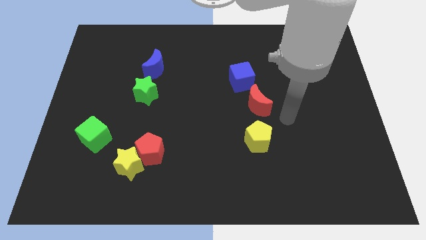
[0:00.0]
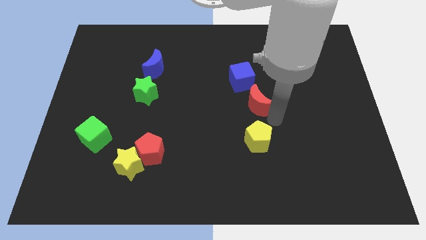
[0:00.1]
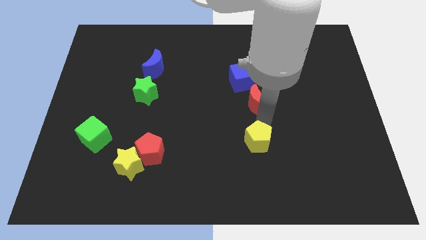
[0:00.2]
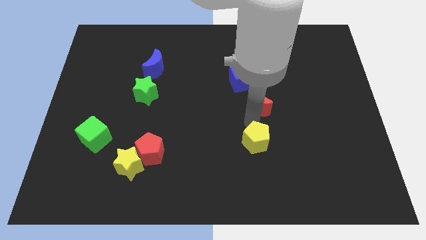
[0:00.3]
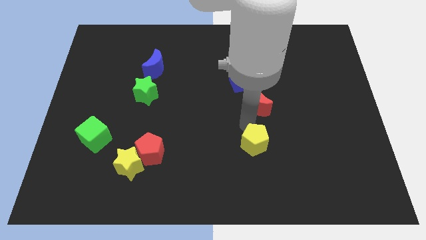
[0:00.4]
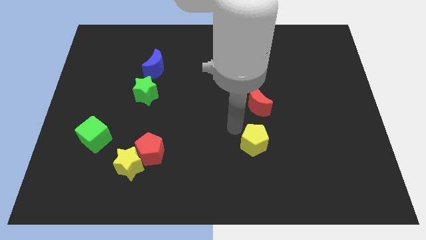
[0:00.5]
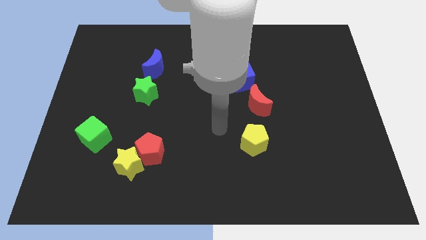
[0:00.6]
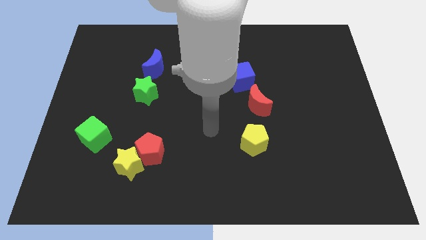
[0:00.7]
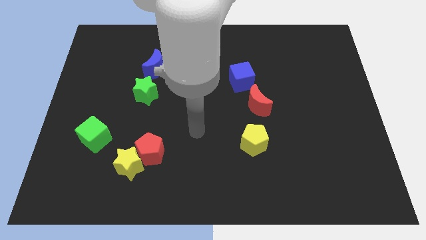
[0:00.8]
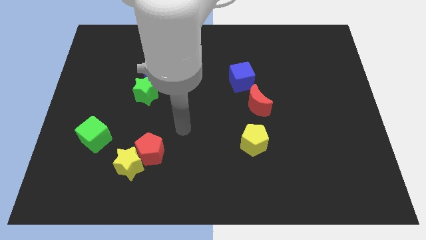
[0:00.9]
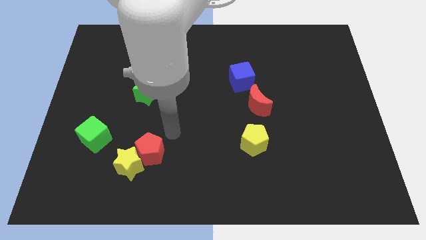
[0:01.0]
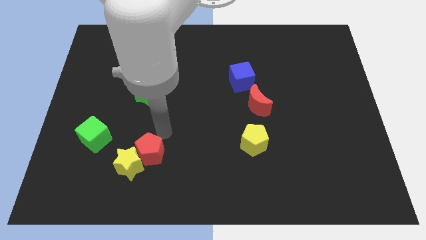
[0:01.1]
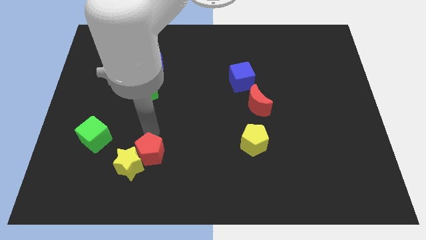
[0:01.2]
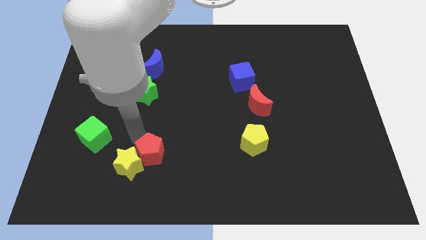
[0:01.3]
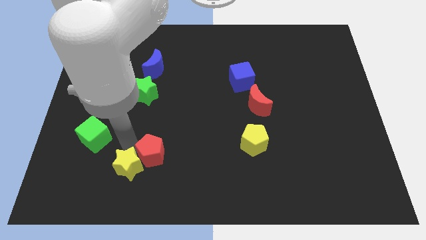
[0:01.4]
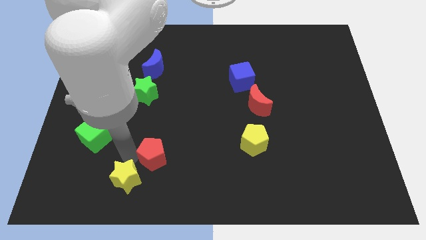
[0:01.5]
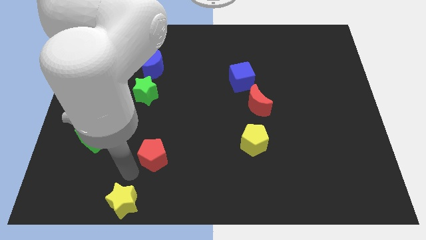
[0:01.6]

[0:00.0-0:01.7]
move the red pentagon away from the yellow star

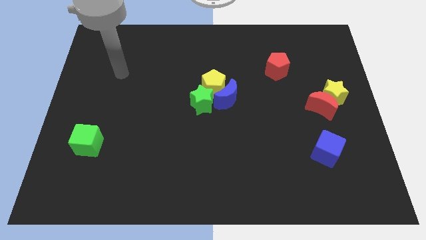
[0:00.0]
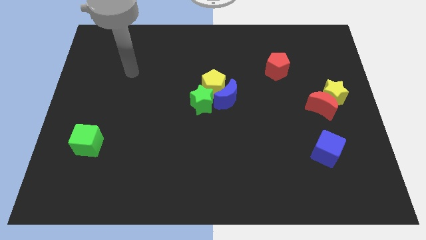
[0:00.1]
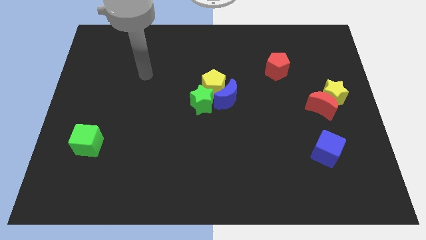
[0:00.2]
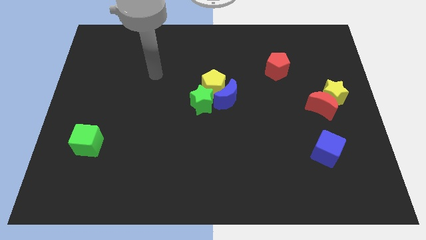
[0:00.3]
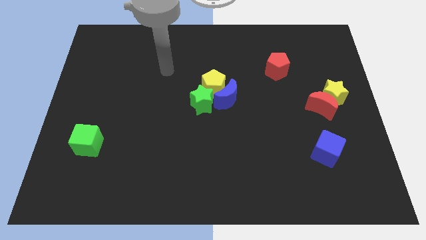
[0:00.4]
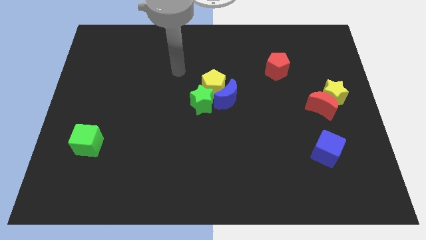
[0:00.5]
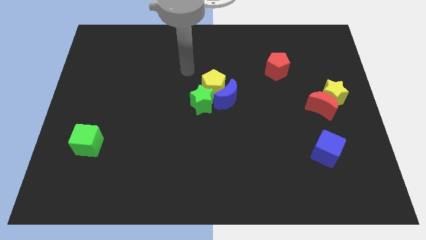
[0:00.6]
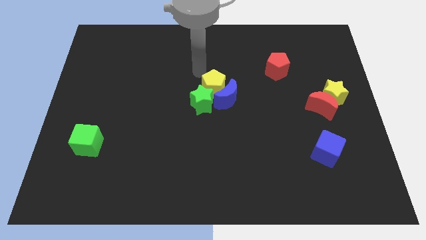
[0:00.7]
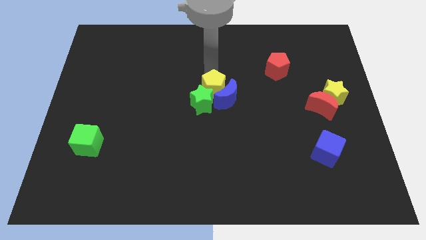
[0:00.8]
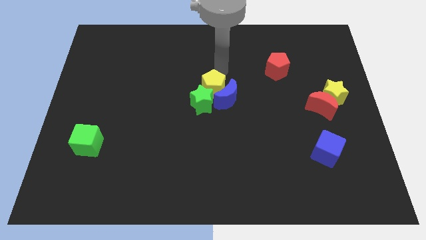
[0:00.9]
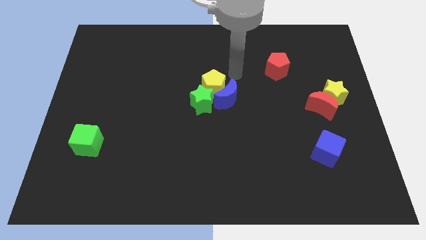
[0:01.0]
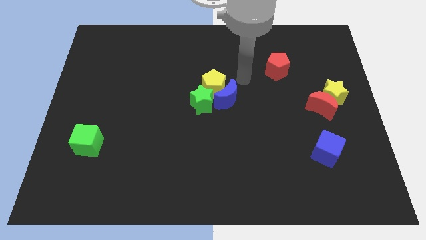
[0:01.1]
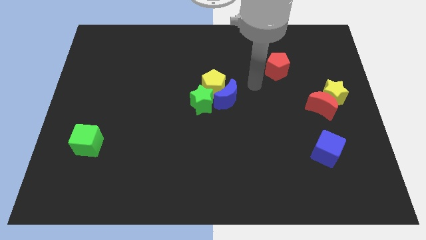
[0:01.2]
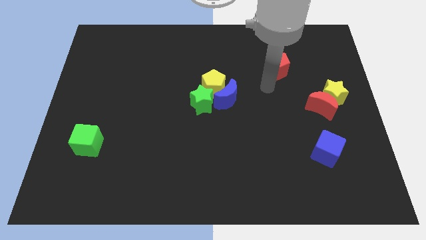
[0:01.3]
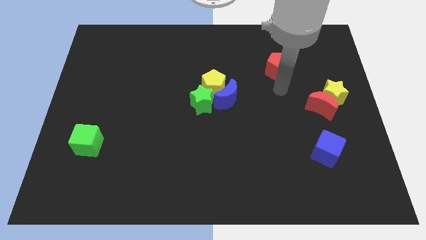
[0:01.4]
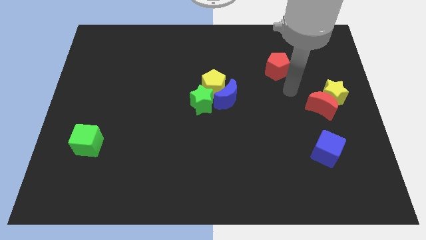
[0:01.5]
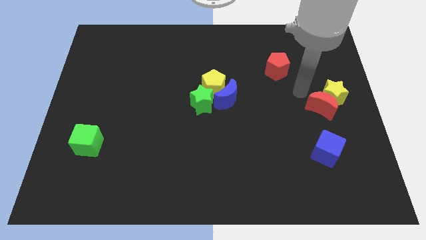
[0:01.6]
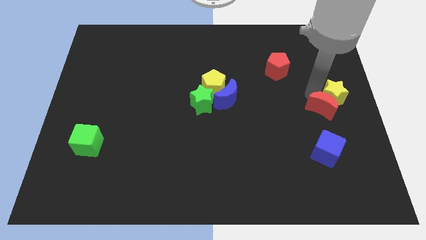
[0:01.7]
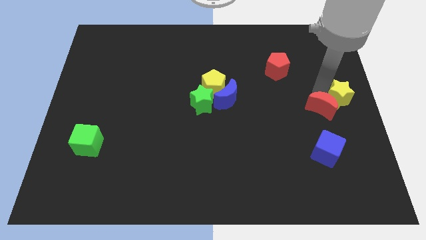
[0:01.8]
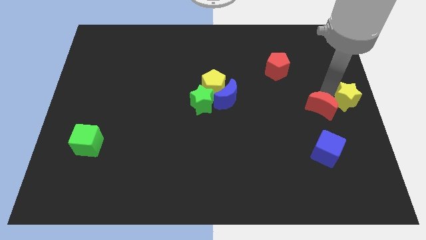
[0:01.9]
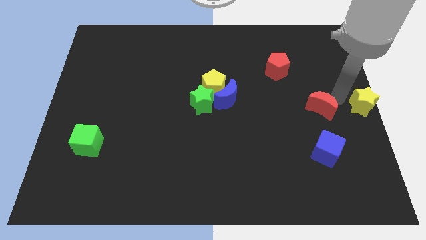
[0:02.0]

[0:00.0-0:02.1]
separate the red moon from the yellow star

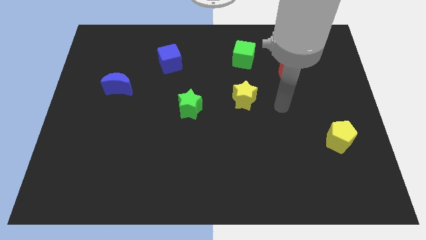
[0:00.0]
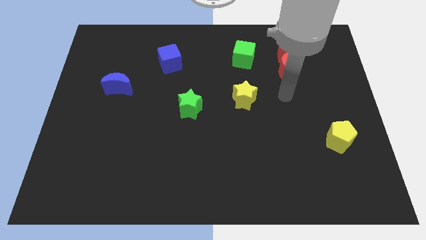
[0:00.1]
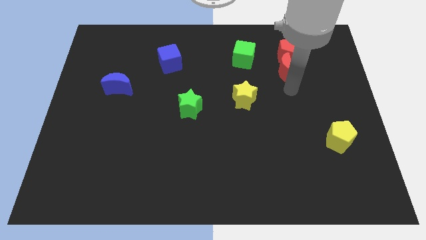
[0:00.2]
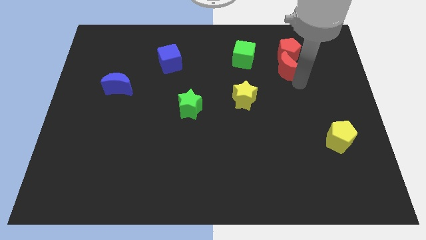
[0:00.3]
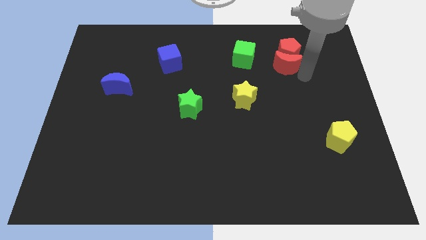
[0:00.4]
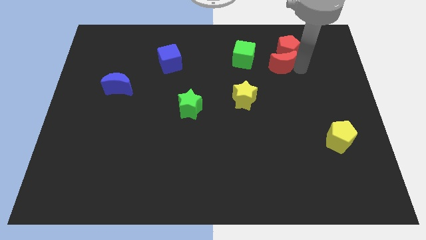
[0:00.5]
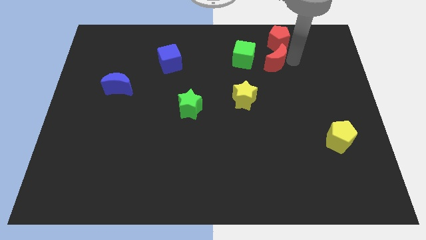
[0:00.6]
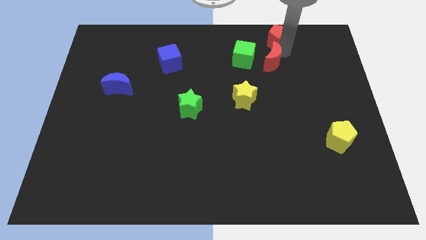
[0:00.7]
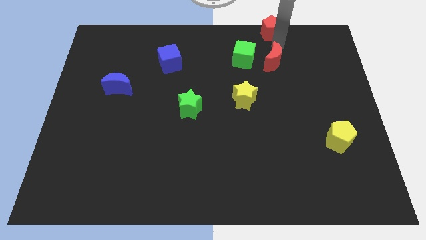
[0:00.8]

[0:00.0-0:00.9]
pull the red moon apart from the red pentagon

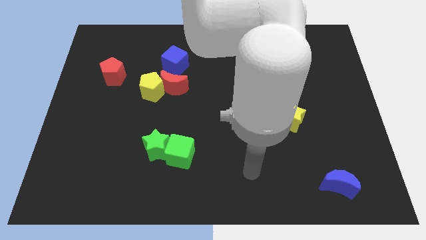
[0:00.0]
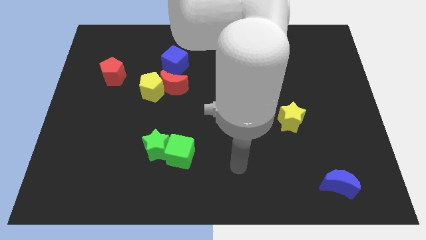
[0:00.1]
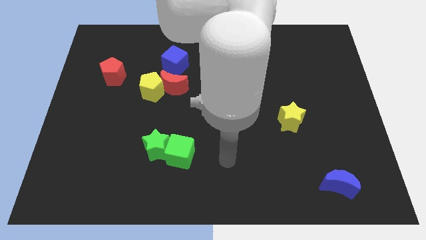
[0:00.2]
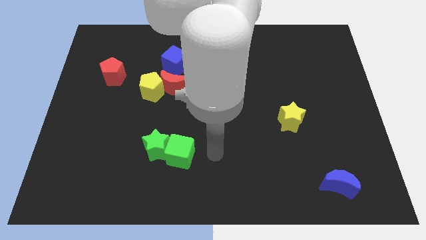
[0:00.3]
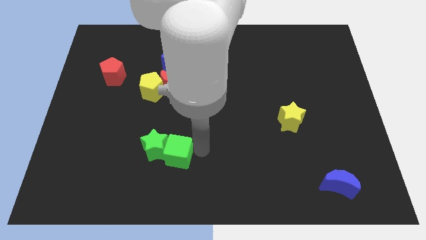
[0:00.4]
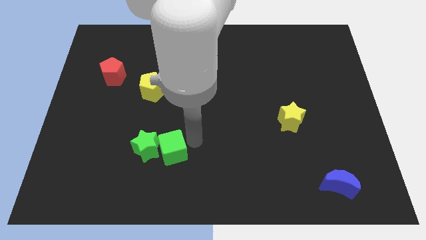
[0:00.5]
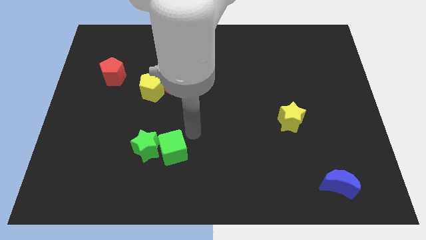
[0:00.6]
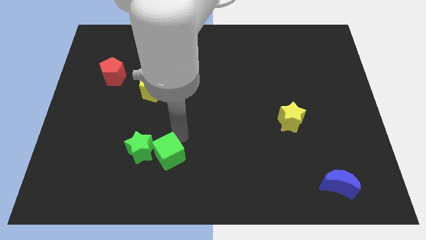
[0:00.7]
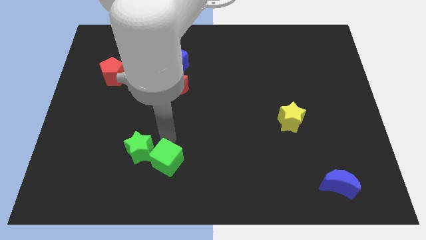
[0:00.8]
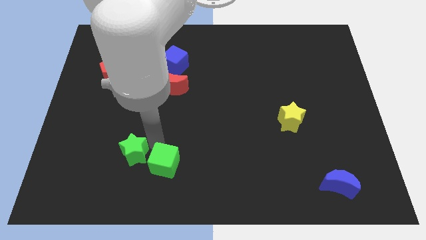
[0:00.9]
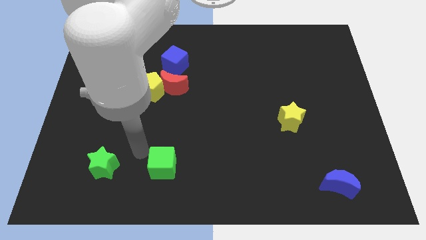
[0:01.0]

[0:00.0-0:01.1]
pull the green cube apart from the green star

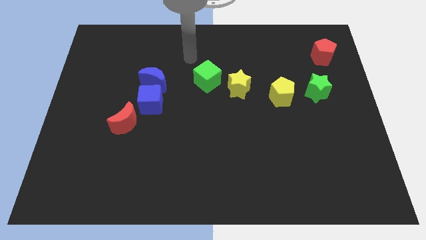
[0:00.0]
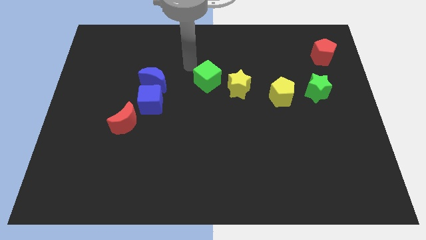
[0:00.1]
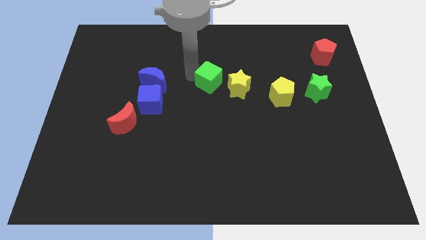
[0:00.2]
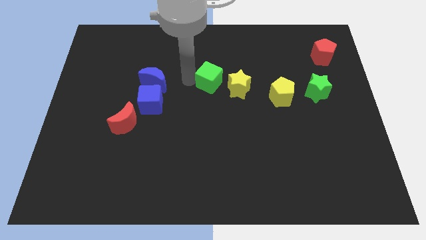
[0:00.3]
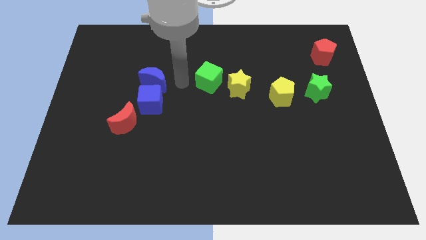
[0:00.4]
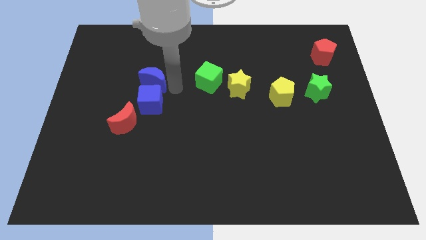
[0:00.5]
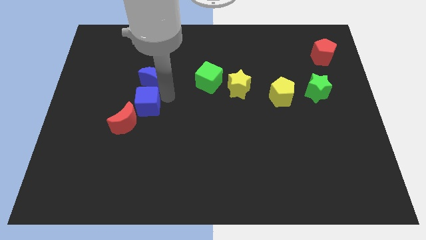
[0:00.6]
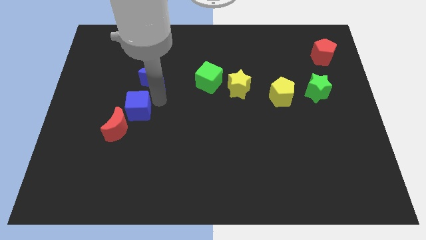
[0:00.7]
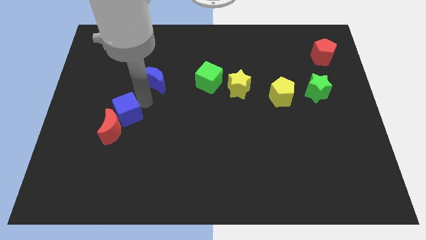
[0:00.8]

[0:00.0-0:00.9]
separate the blue moon from the blue cube

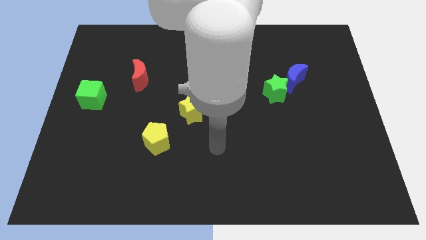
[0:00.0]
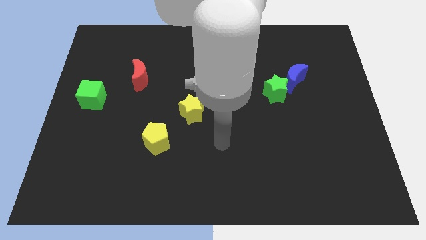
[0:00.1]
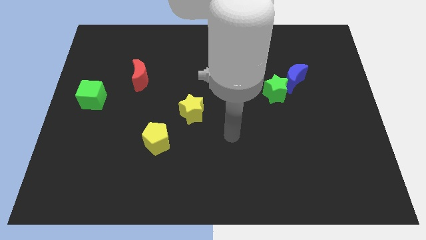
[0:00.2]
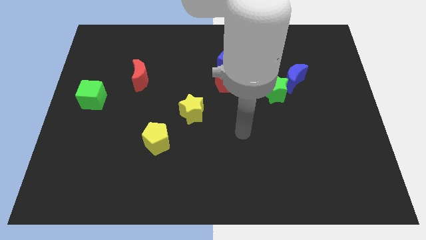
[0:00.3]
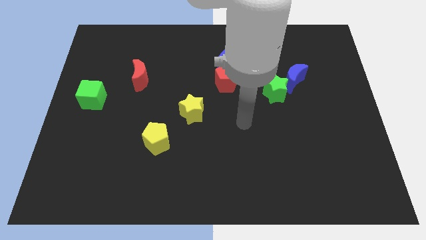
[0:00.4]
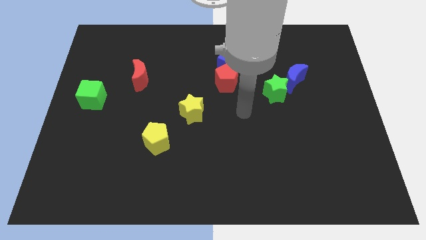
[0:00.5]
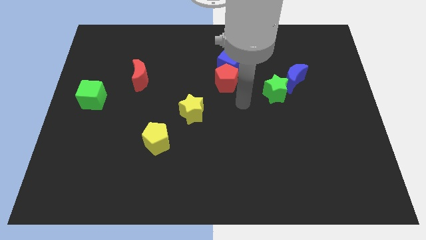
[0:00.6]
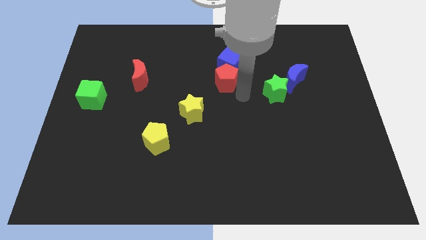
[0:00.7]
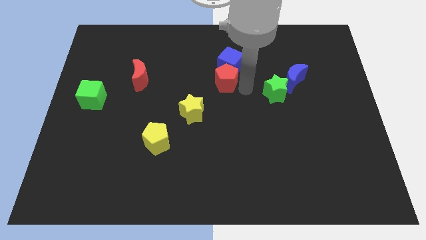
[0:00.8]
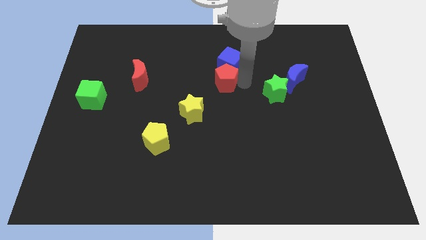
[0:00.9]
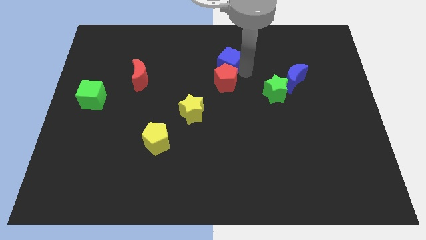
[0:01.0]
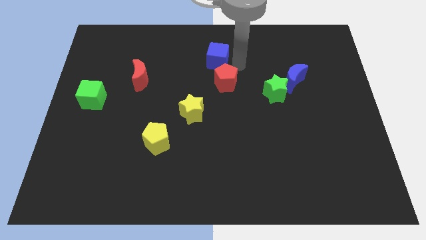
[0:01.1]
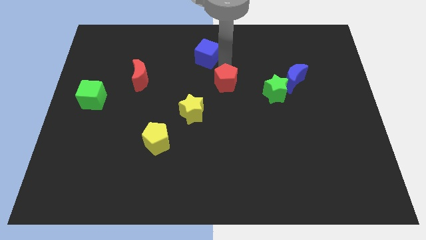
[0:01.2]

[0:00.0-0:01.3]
move the red pentagon away from the blue cube

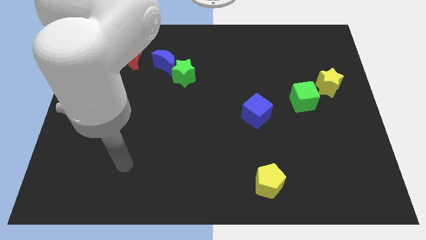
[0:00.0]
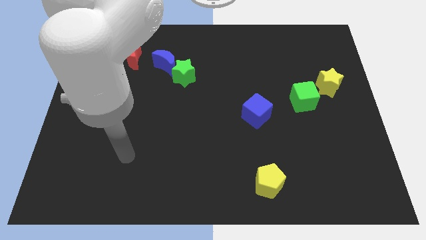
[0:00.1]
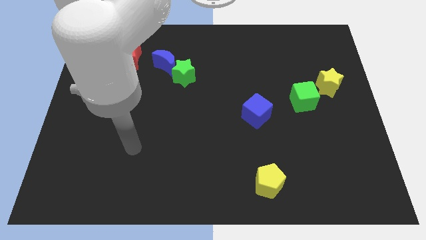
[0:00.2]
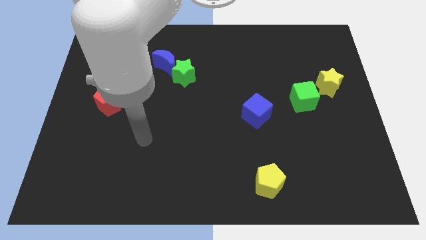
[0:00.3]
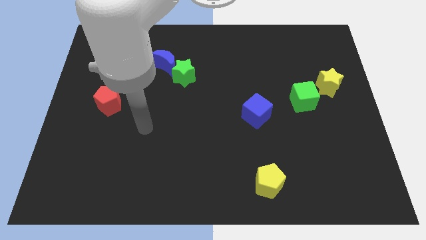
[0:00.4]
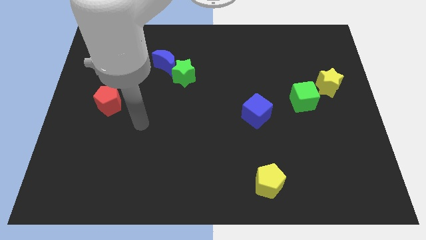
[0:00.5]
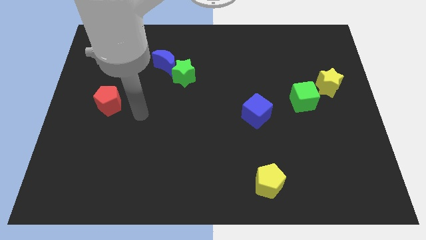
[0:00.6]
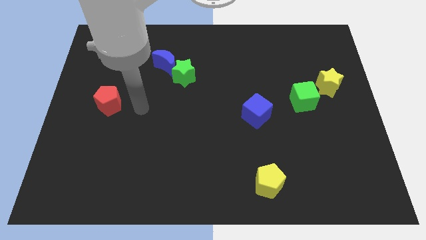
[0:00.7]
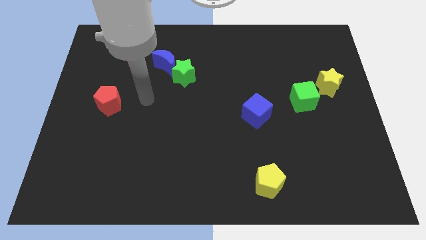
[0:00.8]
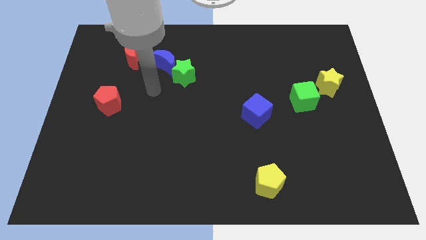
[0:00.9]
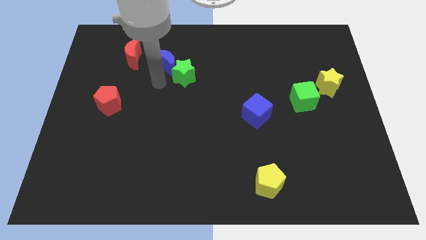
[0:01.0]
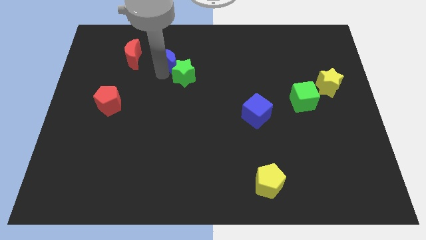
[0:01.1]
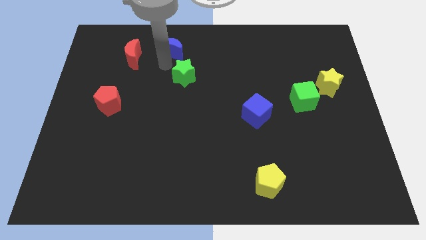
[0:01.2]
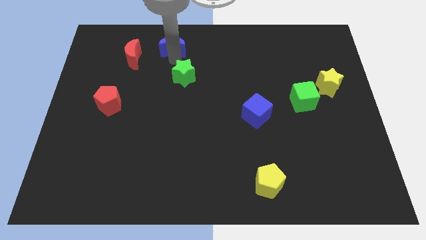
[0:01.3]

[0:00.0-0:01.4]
pull the green star apart from the blue moon

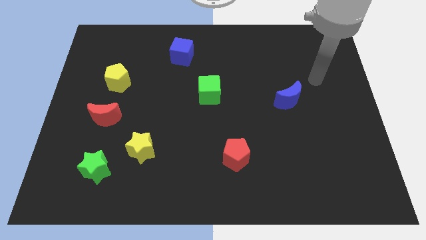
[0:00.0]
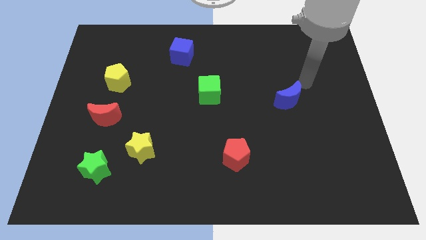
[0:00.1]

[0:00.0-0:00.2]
separate the green star from the yellow star
